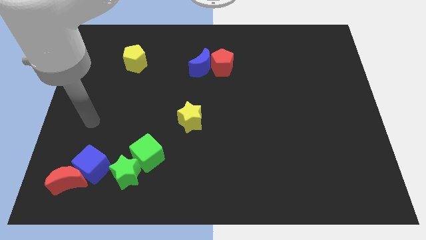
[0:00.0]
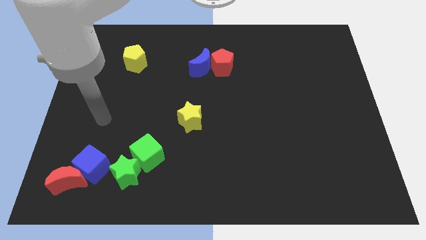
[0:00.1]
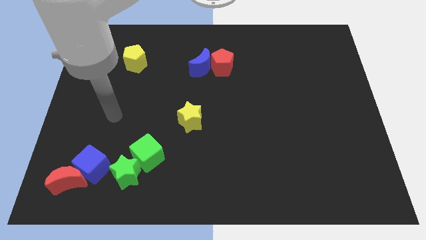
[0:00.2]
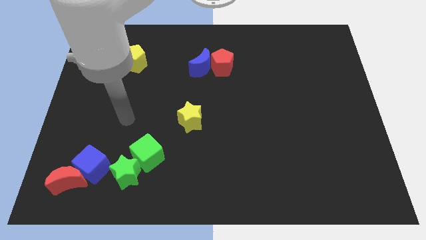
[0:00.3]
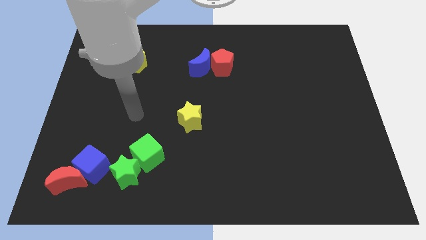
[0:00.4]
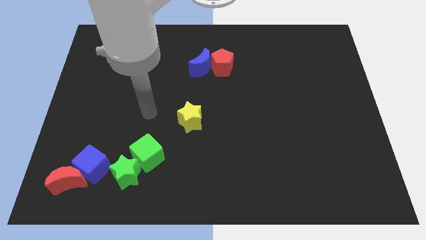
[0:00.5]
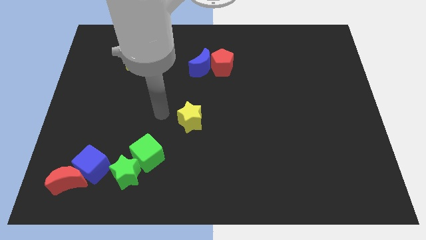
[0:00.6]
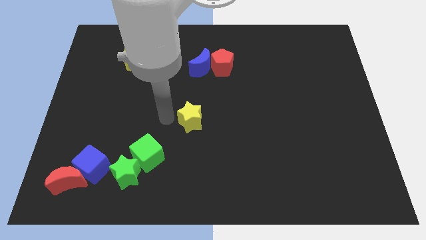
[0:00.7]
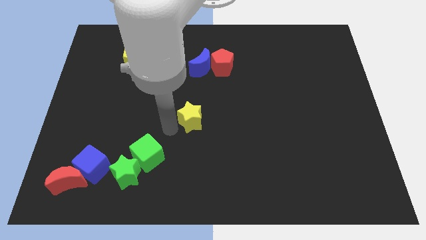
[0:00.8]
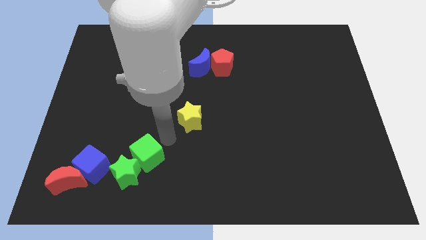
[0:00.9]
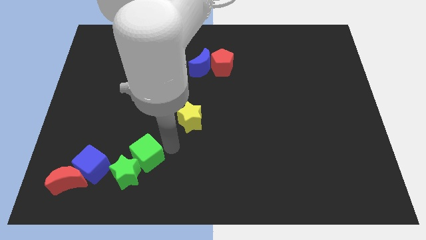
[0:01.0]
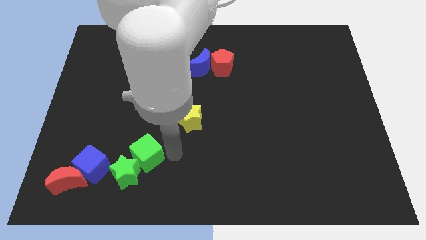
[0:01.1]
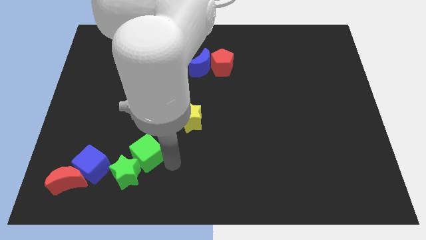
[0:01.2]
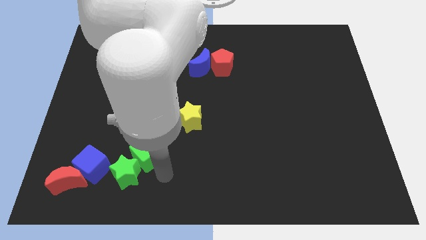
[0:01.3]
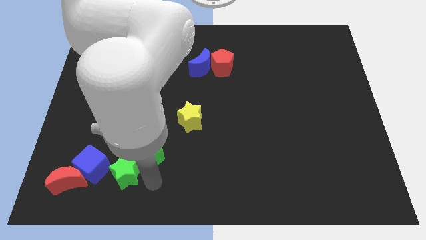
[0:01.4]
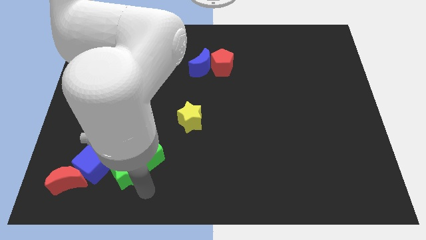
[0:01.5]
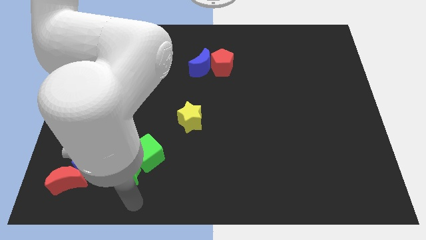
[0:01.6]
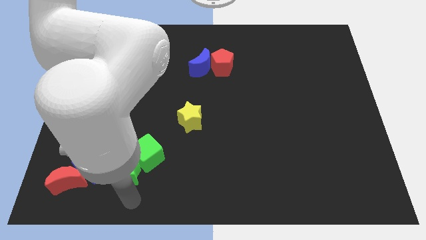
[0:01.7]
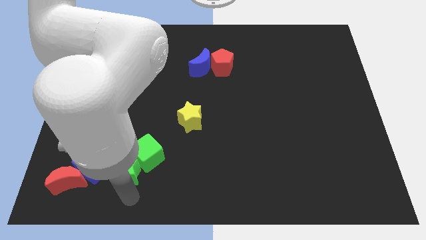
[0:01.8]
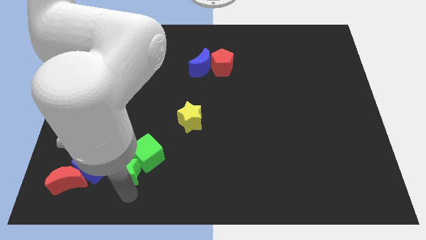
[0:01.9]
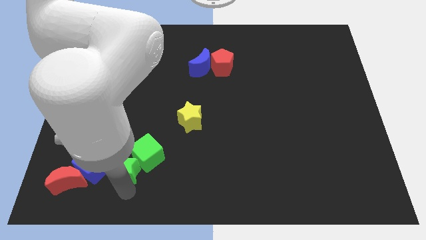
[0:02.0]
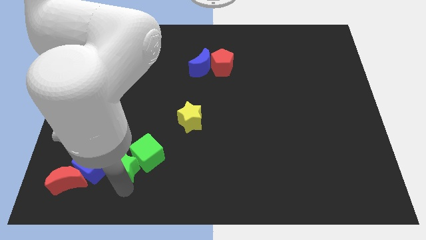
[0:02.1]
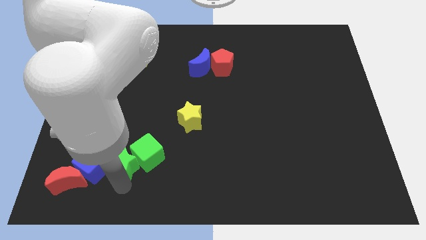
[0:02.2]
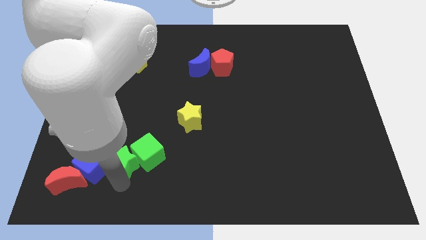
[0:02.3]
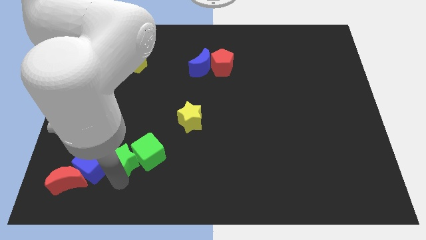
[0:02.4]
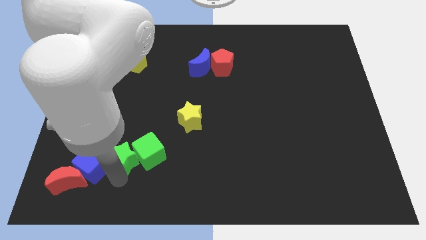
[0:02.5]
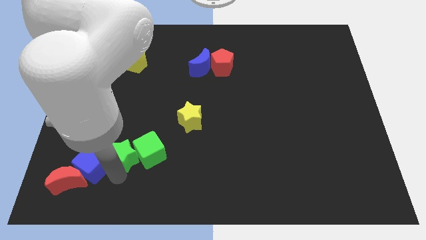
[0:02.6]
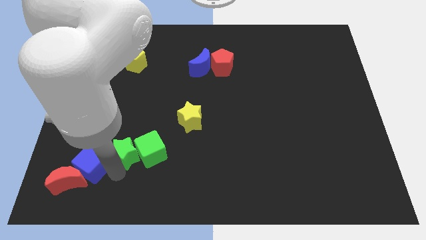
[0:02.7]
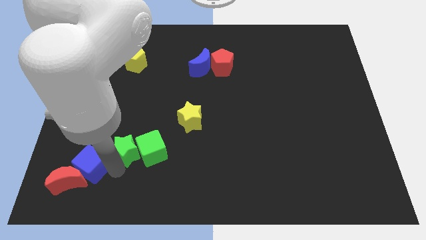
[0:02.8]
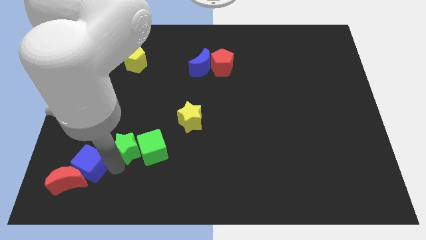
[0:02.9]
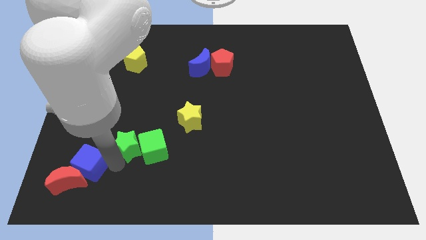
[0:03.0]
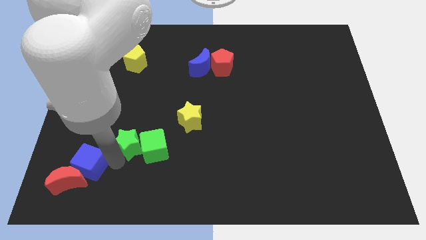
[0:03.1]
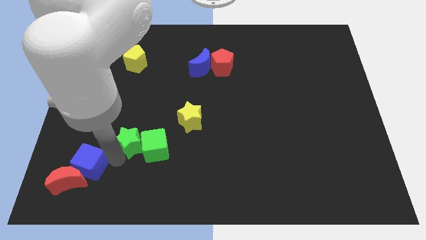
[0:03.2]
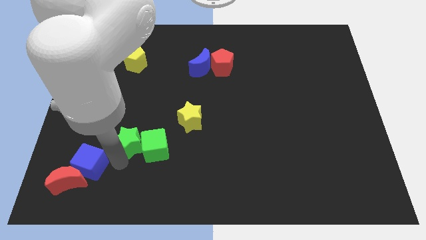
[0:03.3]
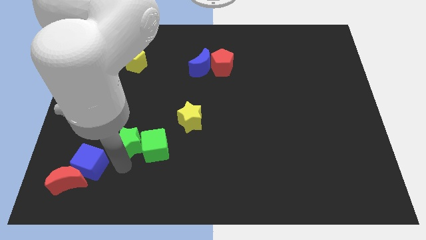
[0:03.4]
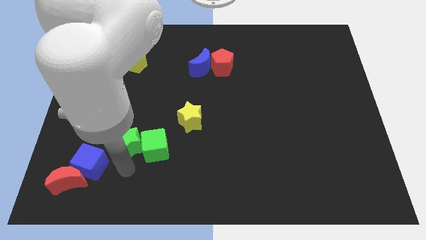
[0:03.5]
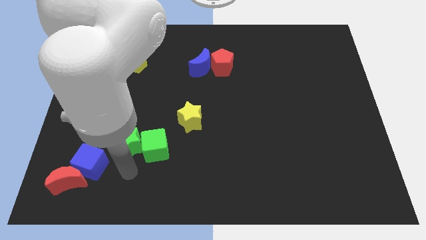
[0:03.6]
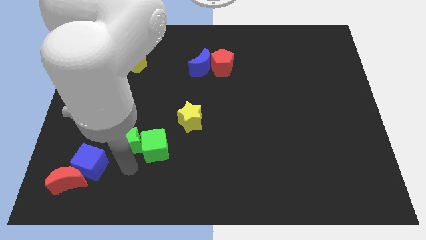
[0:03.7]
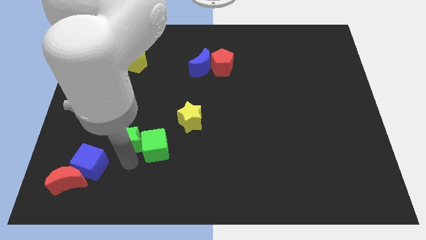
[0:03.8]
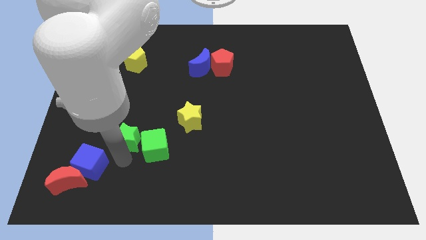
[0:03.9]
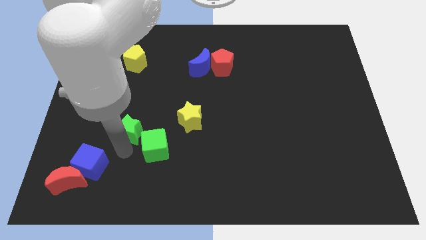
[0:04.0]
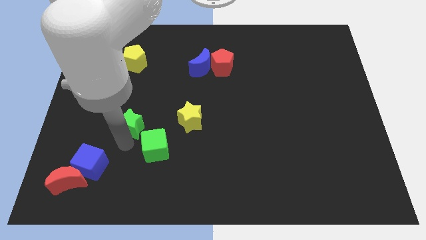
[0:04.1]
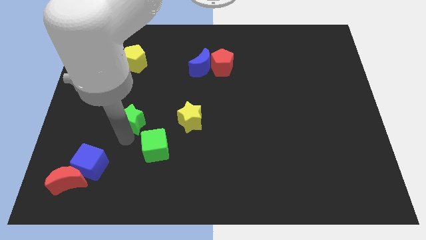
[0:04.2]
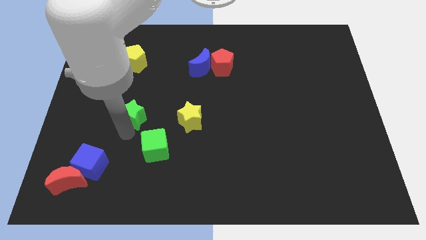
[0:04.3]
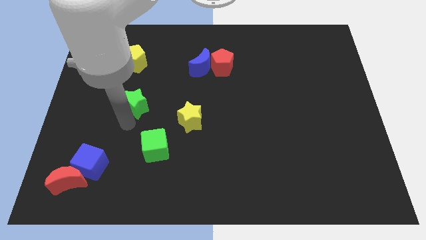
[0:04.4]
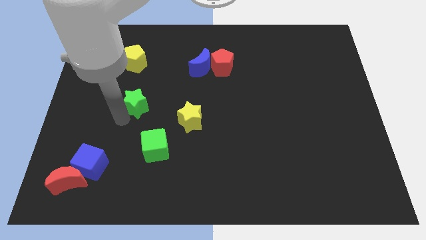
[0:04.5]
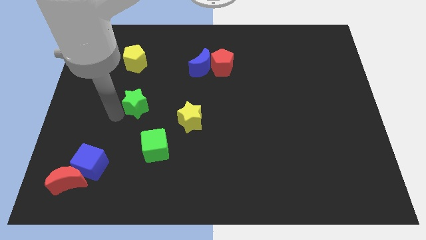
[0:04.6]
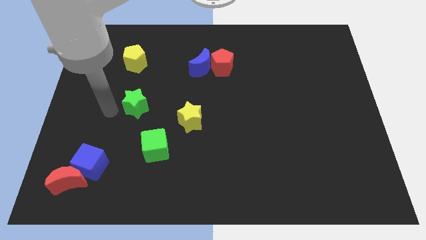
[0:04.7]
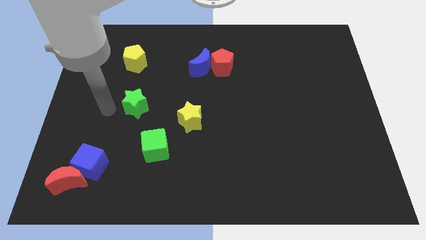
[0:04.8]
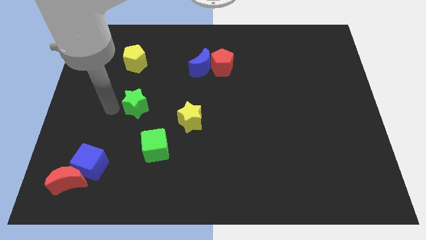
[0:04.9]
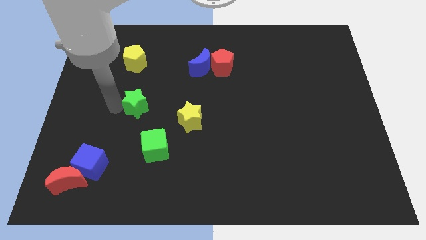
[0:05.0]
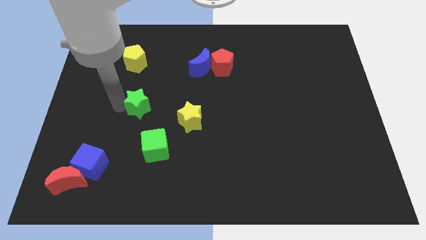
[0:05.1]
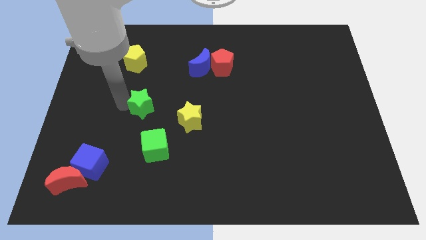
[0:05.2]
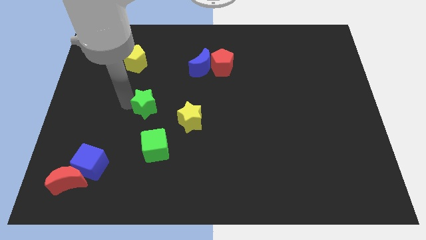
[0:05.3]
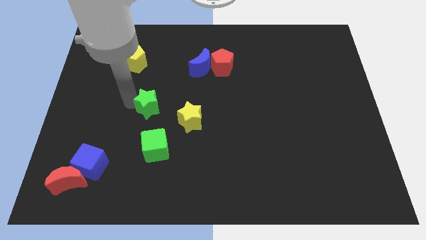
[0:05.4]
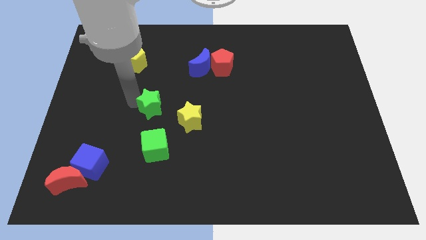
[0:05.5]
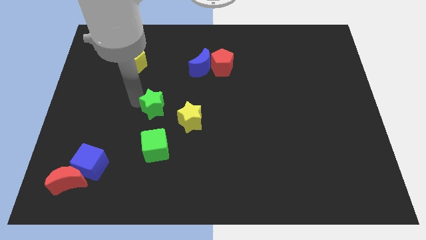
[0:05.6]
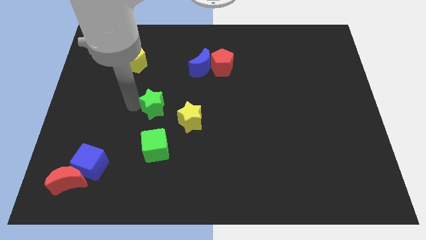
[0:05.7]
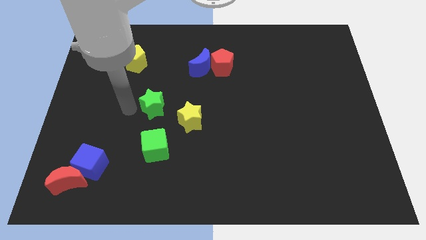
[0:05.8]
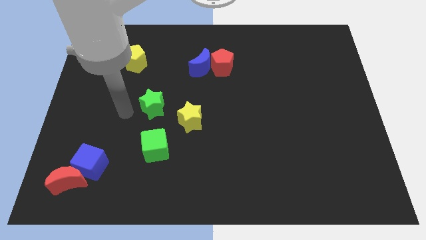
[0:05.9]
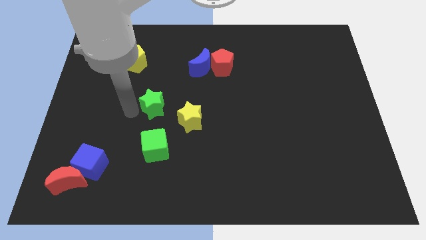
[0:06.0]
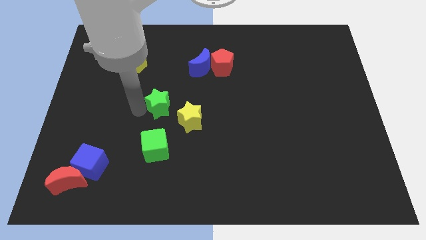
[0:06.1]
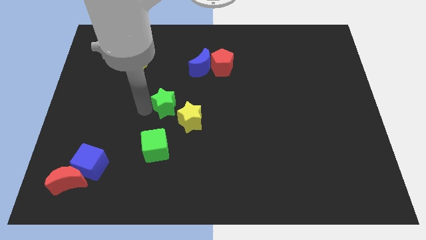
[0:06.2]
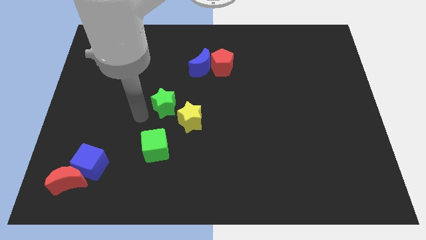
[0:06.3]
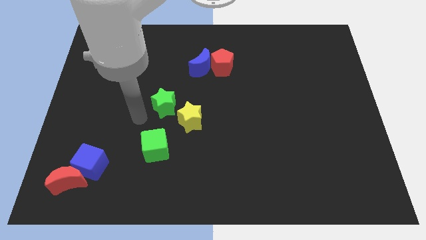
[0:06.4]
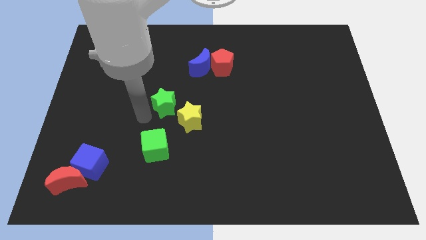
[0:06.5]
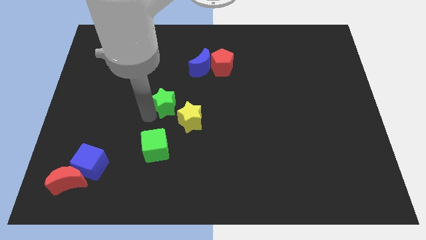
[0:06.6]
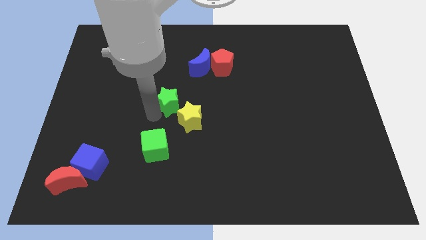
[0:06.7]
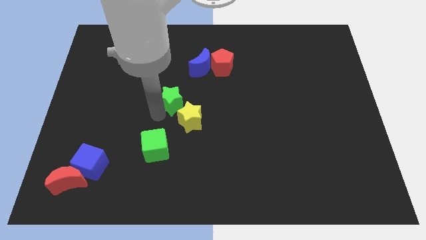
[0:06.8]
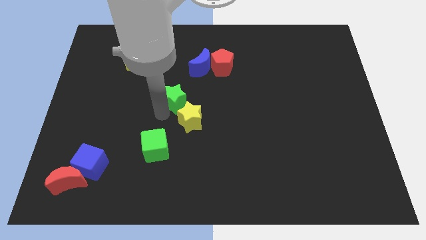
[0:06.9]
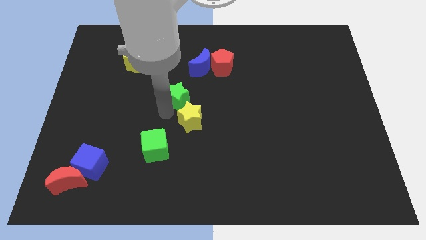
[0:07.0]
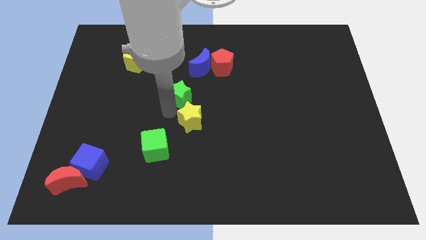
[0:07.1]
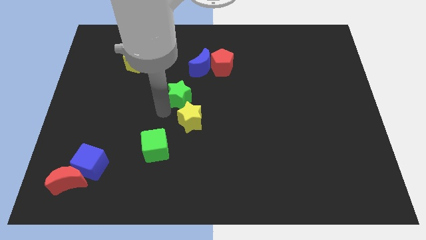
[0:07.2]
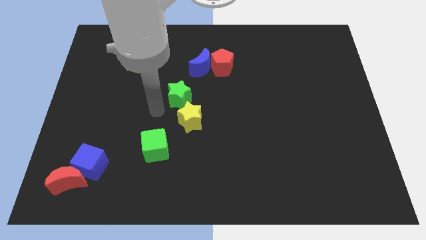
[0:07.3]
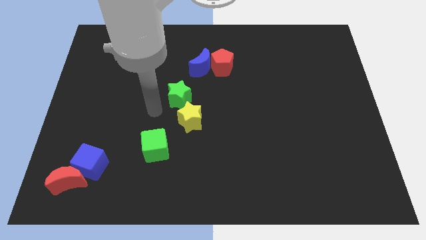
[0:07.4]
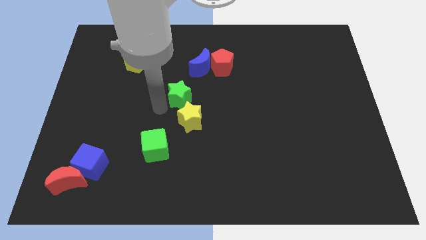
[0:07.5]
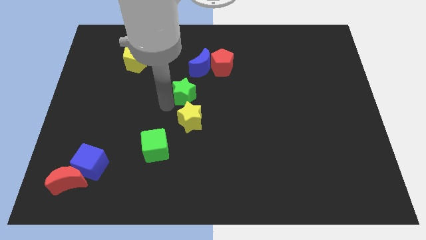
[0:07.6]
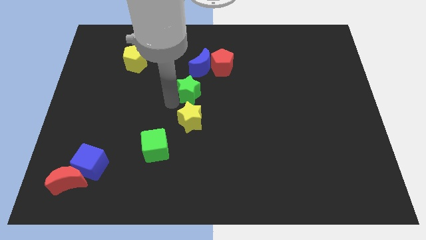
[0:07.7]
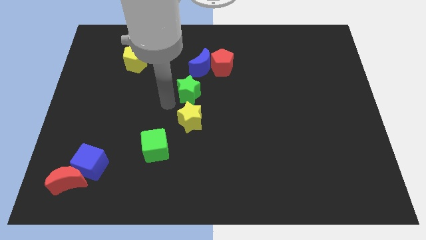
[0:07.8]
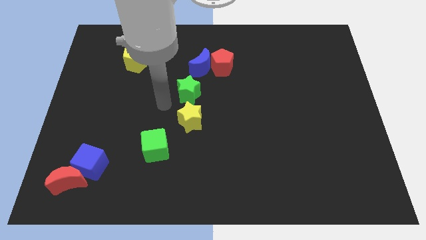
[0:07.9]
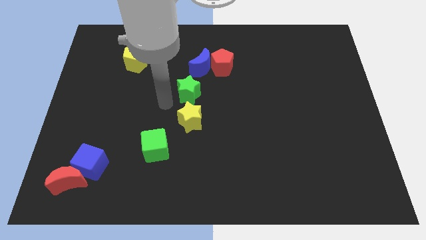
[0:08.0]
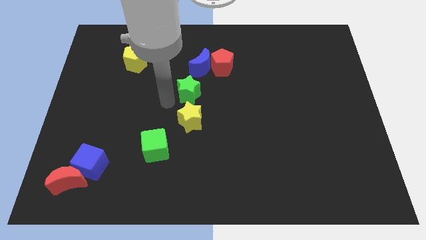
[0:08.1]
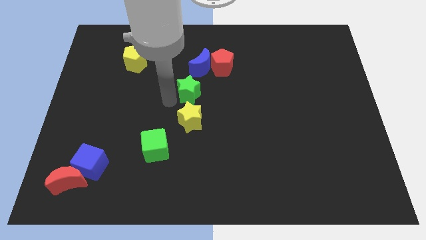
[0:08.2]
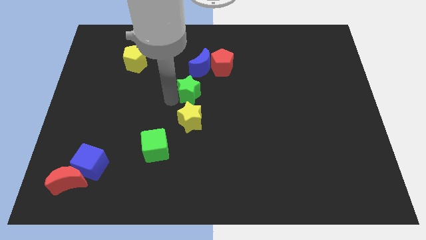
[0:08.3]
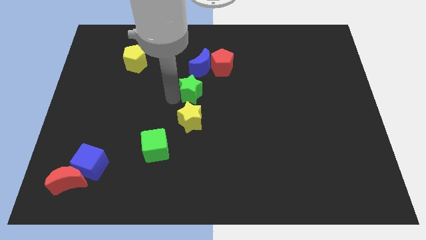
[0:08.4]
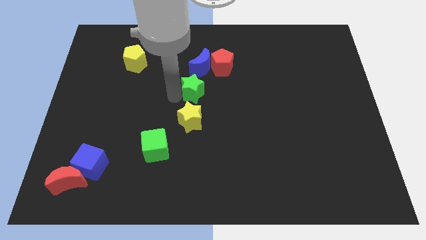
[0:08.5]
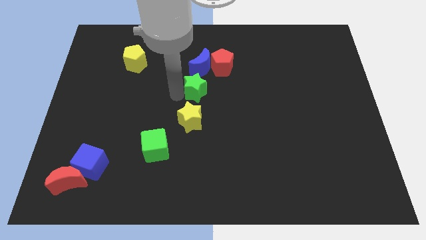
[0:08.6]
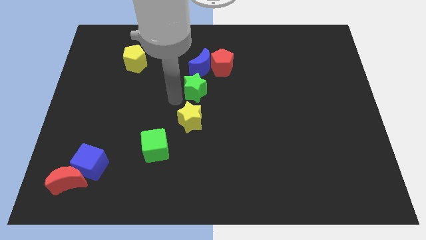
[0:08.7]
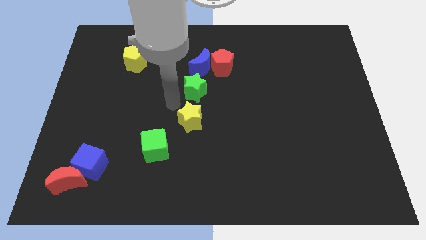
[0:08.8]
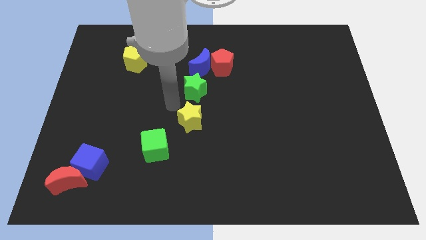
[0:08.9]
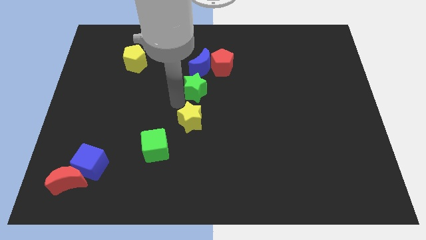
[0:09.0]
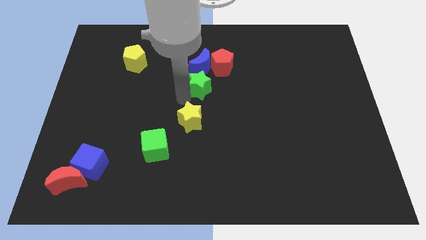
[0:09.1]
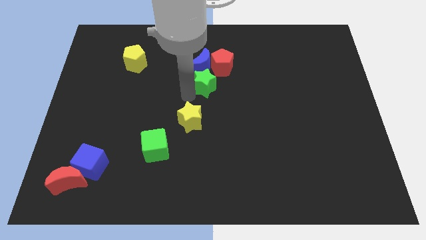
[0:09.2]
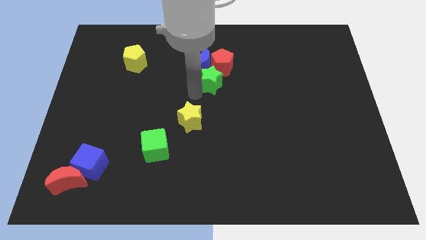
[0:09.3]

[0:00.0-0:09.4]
slide the green star next to the blue moon
